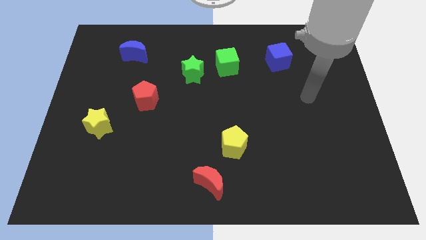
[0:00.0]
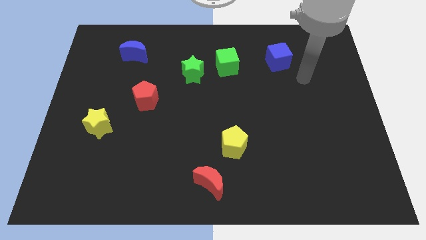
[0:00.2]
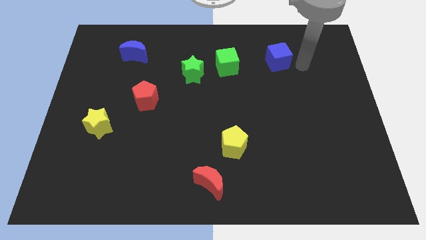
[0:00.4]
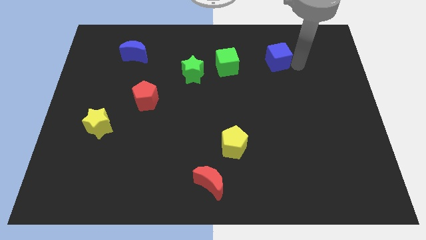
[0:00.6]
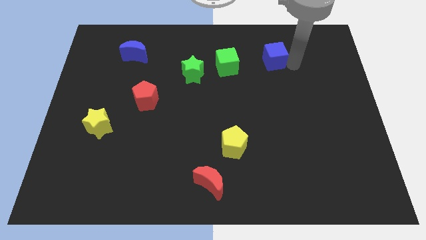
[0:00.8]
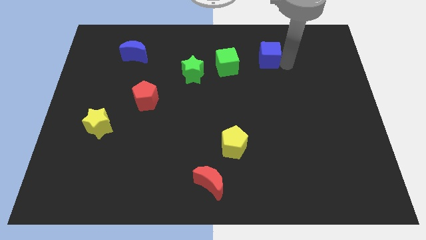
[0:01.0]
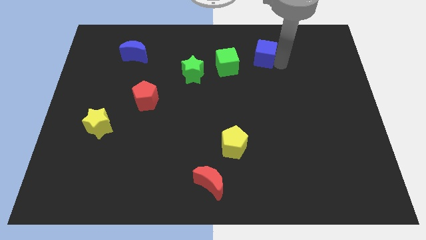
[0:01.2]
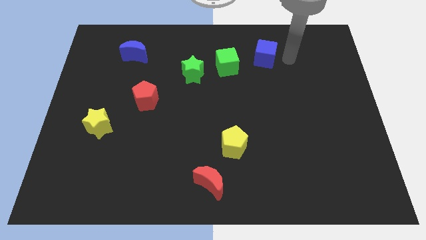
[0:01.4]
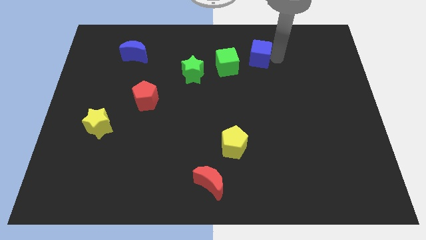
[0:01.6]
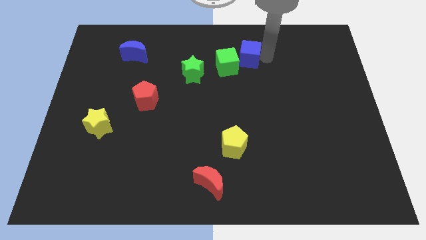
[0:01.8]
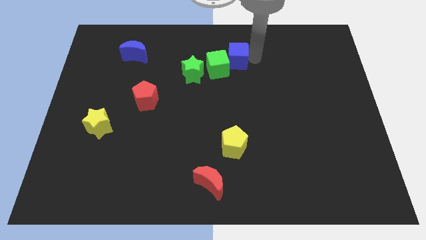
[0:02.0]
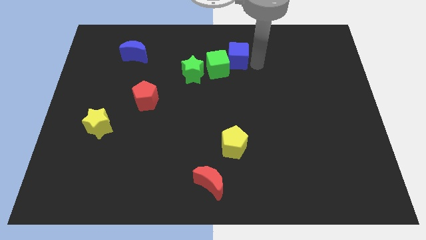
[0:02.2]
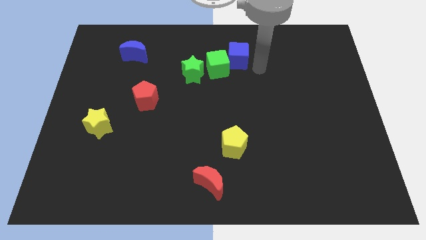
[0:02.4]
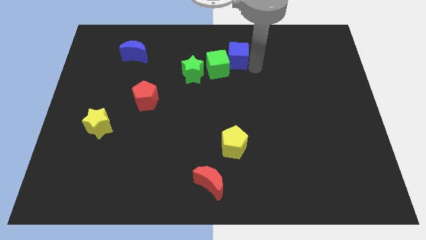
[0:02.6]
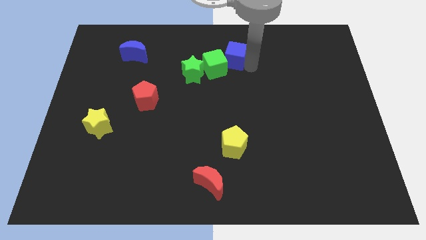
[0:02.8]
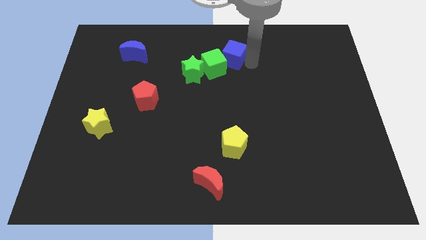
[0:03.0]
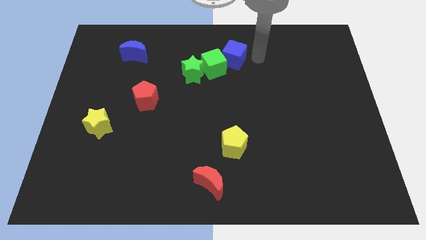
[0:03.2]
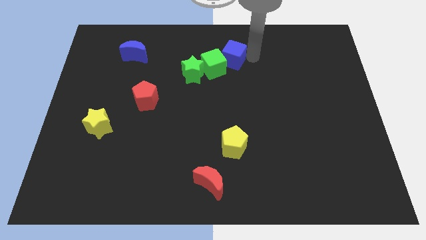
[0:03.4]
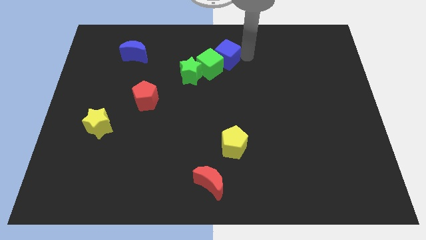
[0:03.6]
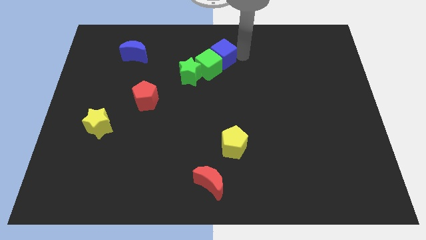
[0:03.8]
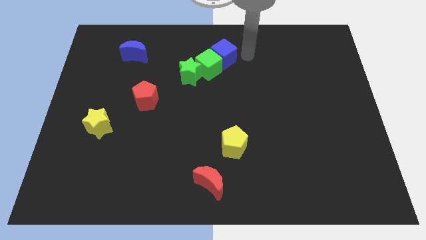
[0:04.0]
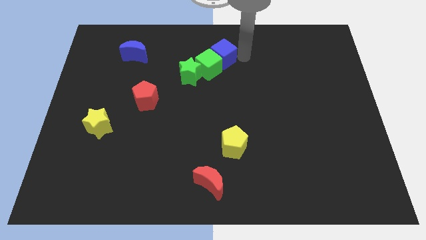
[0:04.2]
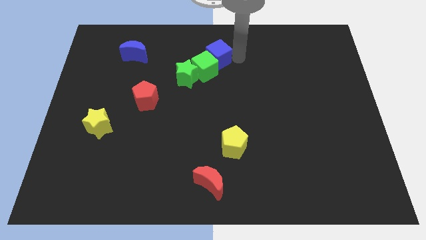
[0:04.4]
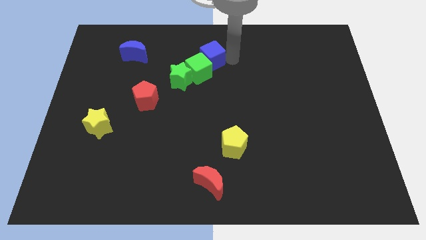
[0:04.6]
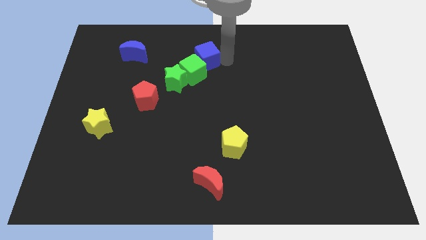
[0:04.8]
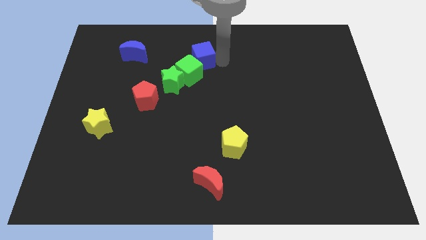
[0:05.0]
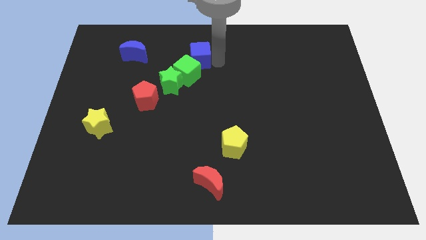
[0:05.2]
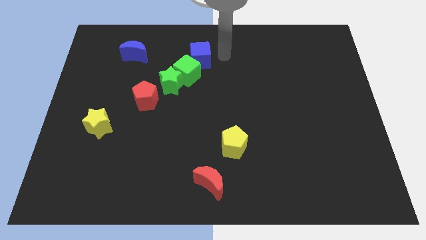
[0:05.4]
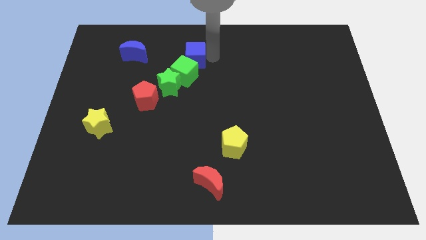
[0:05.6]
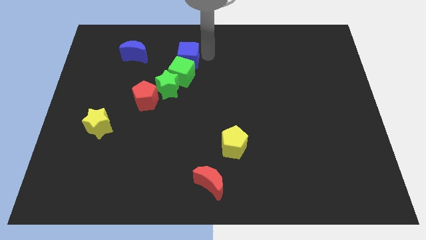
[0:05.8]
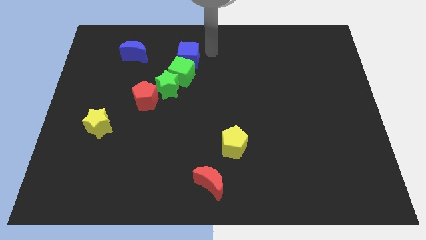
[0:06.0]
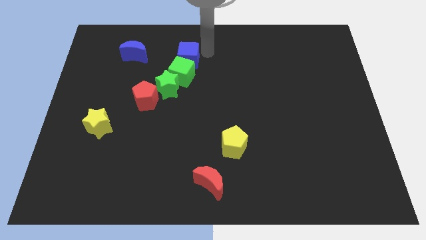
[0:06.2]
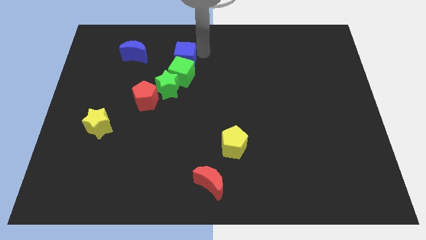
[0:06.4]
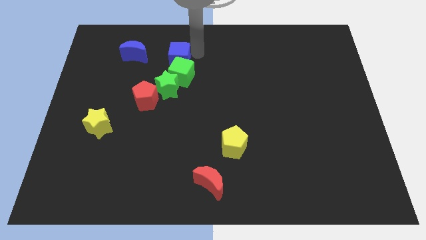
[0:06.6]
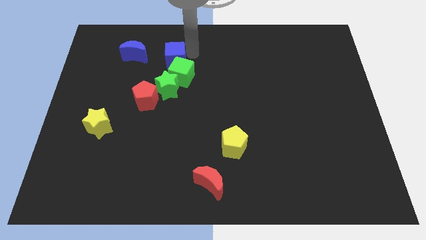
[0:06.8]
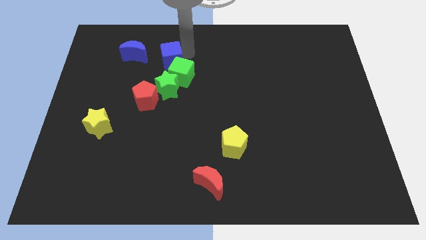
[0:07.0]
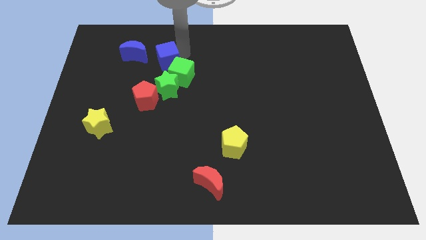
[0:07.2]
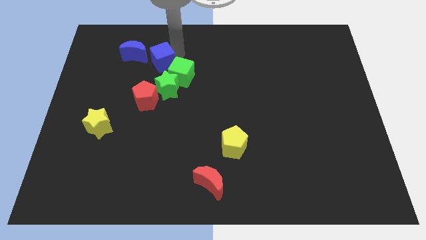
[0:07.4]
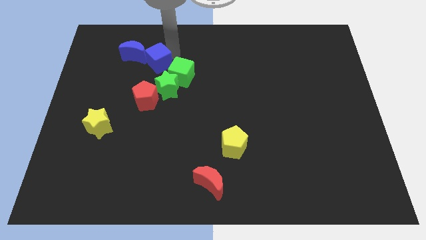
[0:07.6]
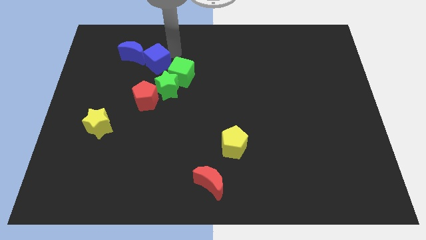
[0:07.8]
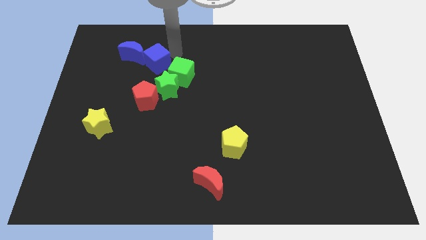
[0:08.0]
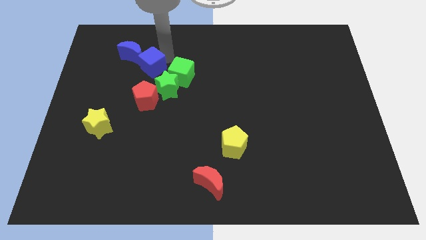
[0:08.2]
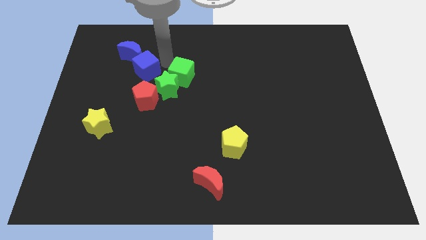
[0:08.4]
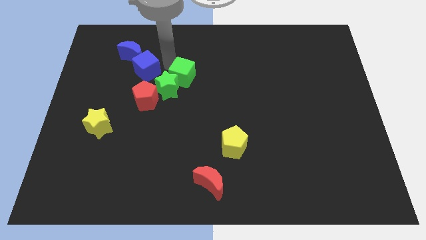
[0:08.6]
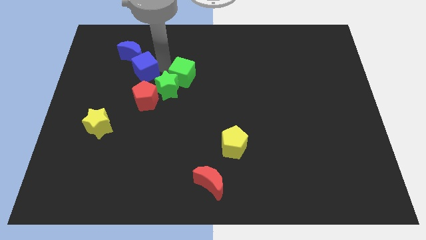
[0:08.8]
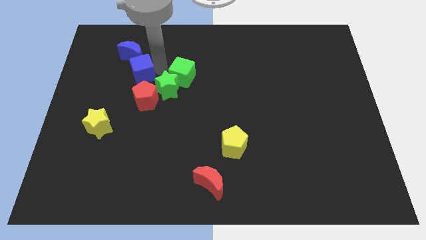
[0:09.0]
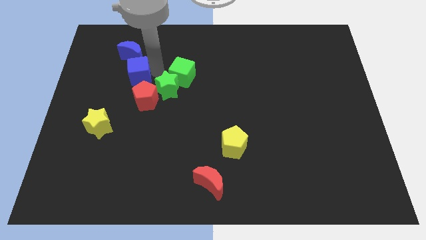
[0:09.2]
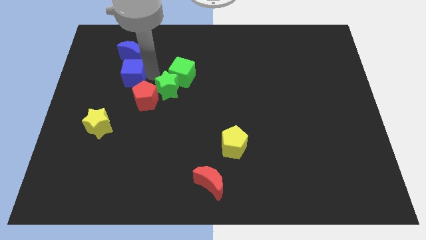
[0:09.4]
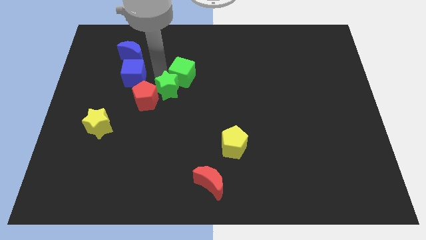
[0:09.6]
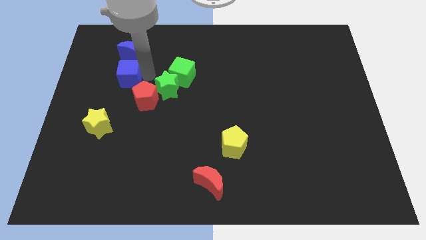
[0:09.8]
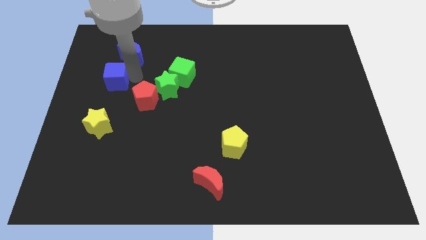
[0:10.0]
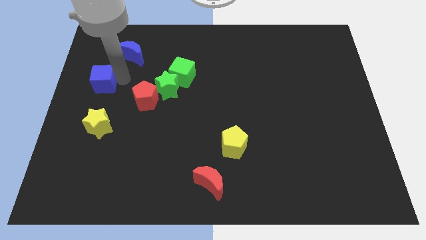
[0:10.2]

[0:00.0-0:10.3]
push the blue cube to the center left

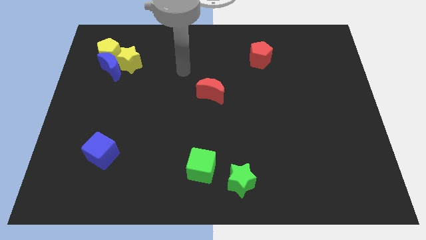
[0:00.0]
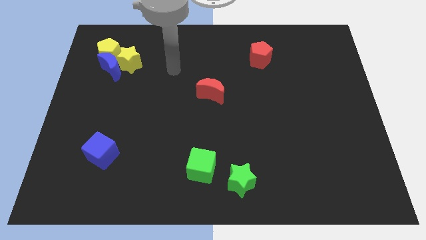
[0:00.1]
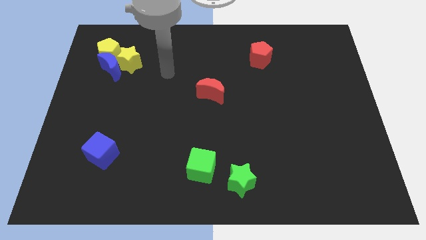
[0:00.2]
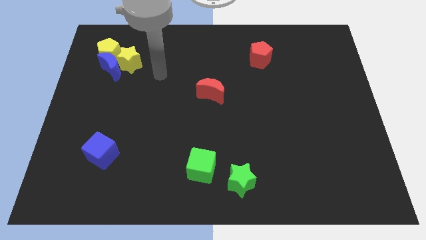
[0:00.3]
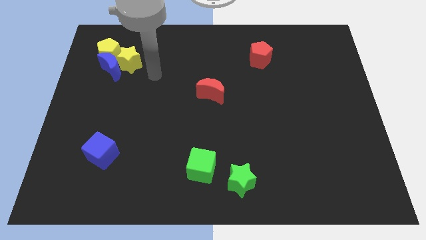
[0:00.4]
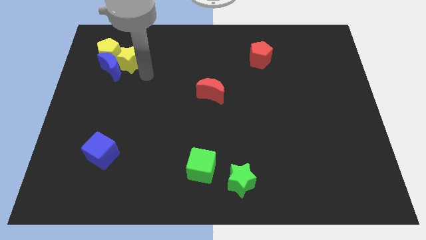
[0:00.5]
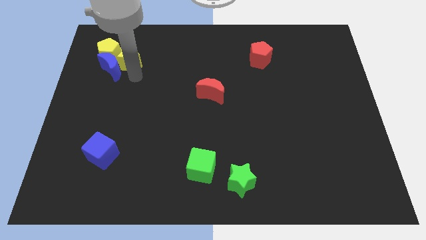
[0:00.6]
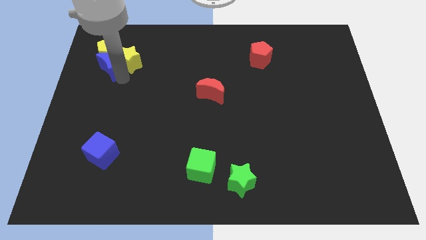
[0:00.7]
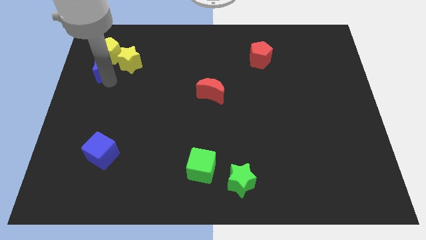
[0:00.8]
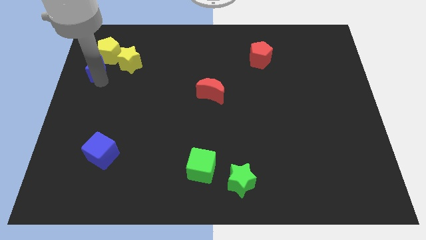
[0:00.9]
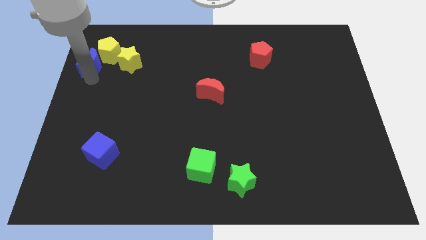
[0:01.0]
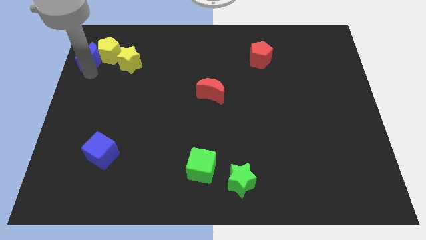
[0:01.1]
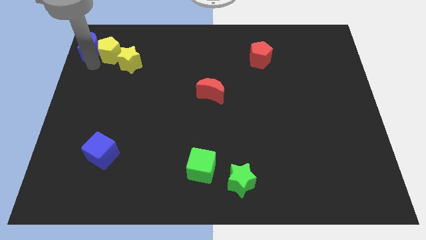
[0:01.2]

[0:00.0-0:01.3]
move the blue moon to the top left corner
